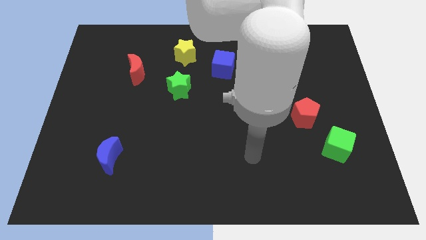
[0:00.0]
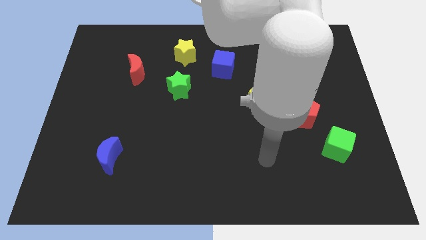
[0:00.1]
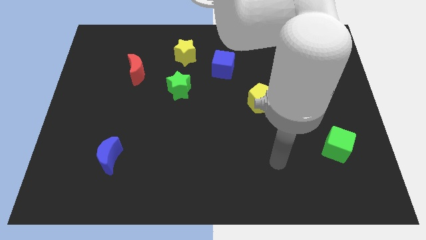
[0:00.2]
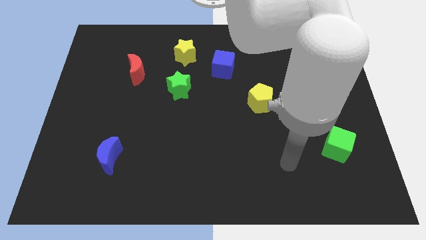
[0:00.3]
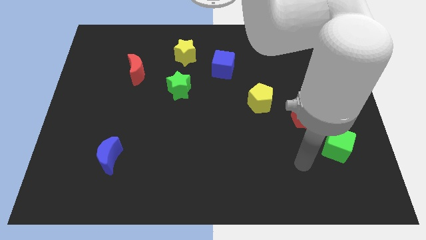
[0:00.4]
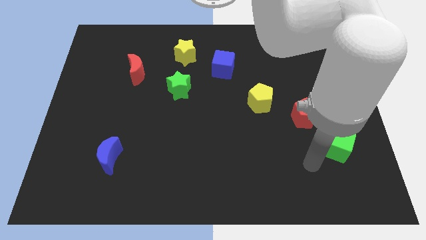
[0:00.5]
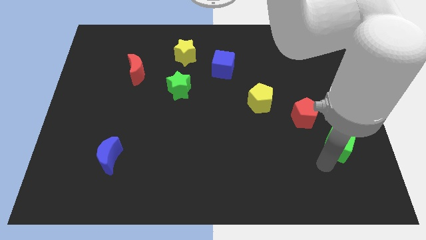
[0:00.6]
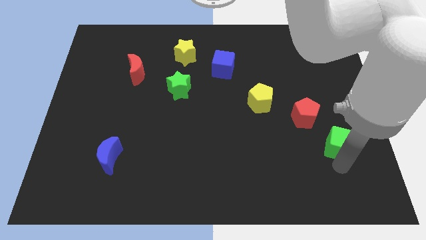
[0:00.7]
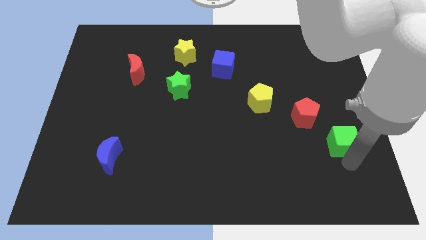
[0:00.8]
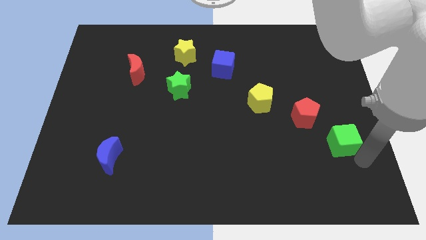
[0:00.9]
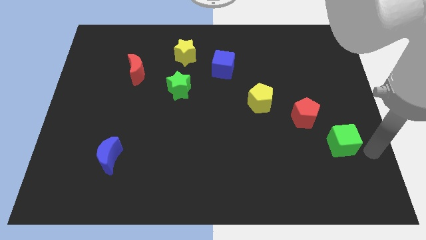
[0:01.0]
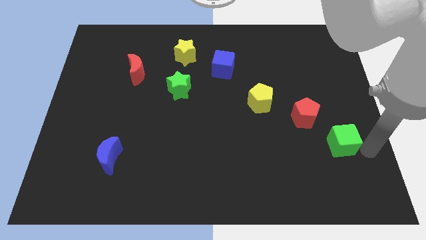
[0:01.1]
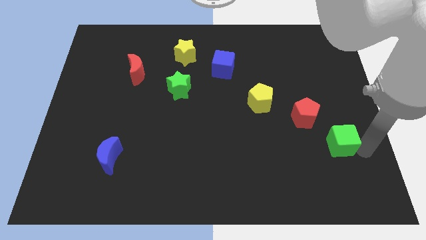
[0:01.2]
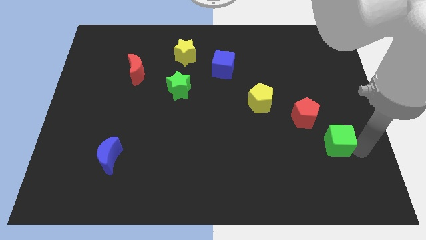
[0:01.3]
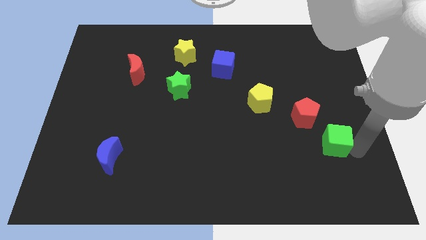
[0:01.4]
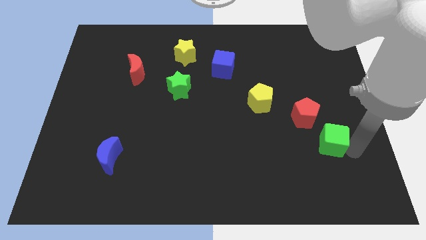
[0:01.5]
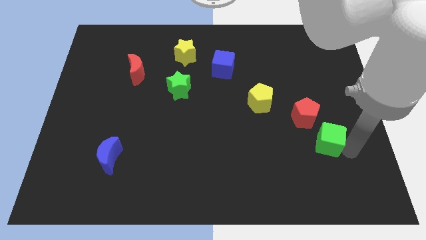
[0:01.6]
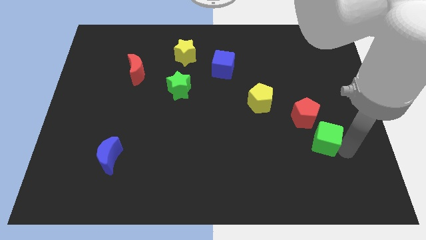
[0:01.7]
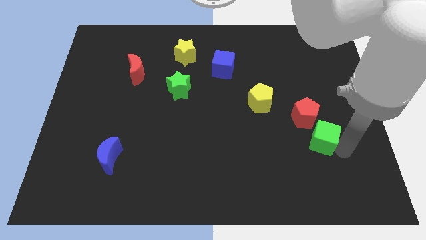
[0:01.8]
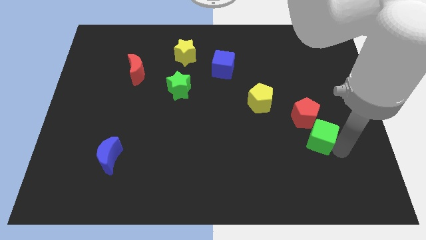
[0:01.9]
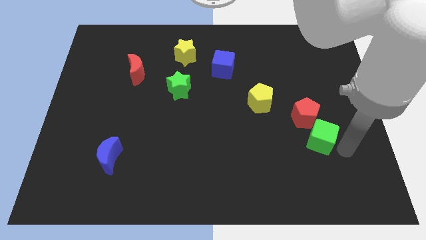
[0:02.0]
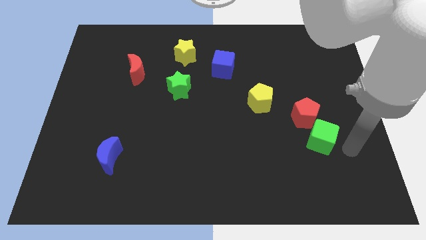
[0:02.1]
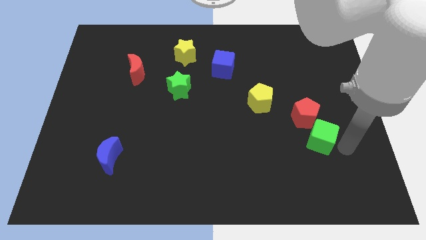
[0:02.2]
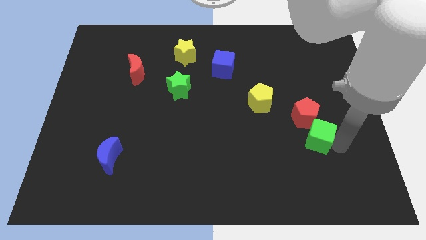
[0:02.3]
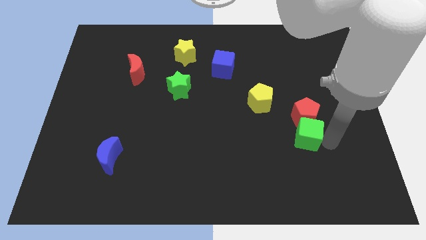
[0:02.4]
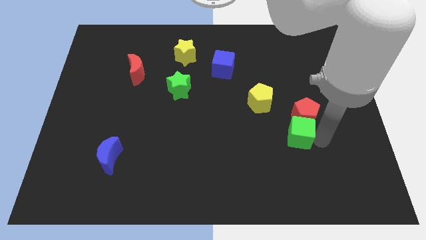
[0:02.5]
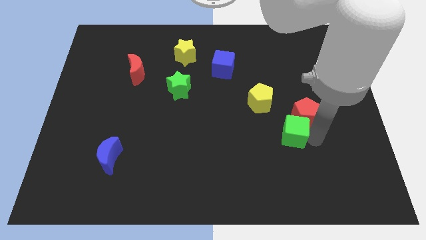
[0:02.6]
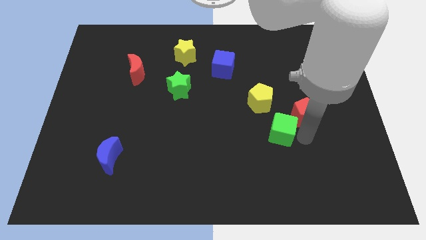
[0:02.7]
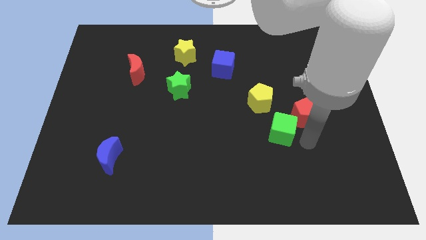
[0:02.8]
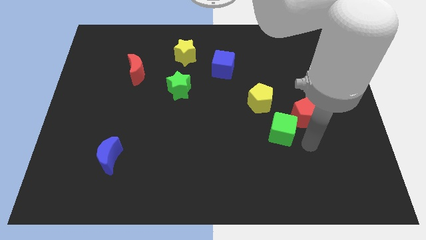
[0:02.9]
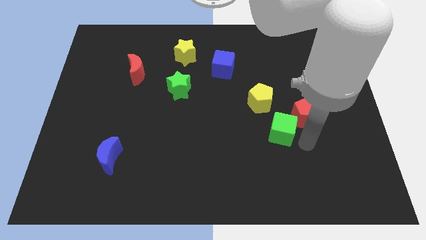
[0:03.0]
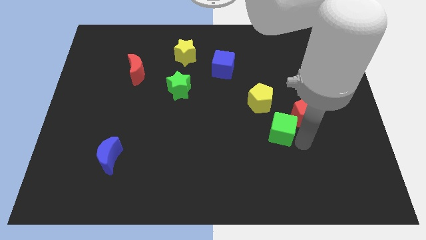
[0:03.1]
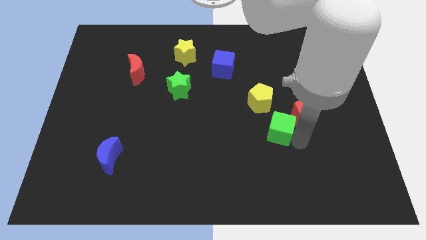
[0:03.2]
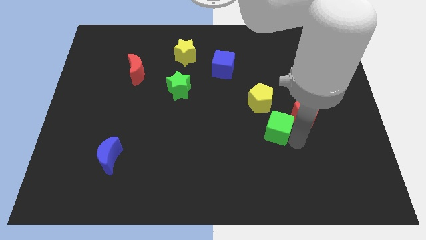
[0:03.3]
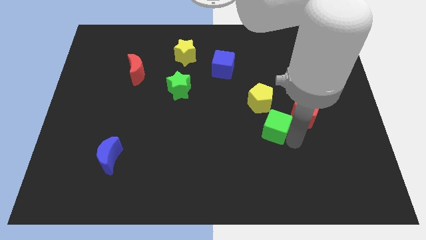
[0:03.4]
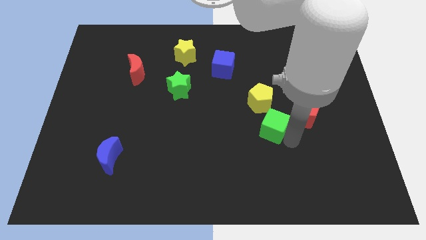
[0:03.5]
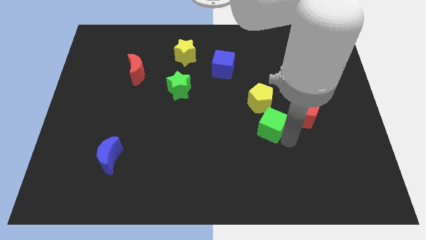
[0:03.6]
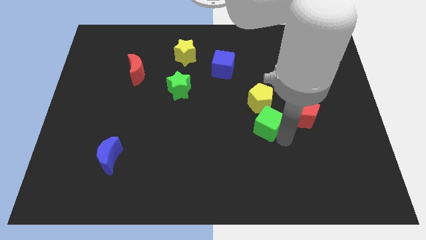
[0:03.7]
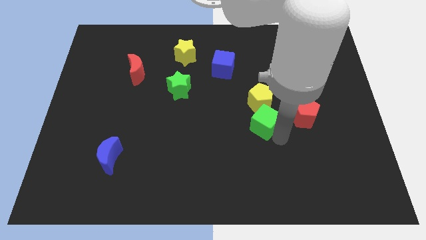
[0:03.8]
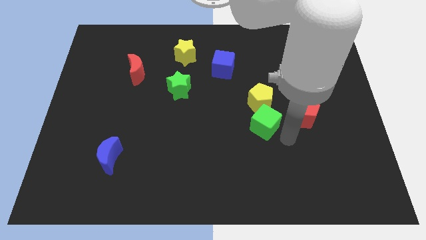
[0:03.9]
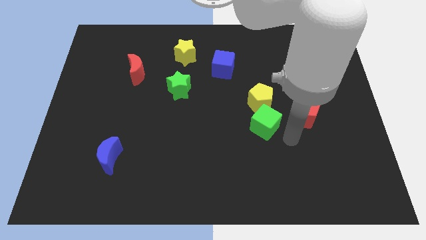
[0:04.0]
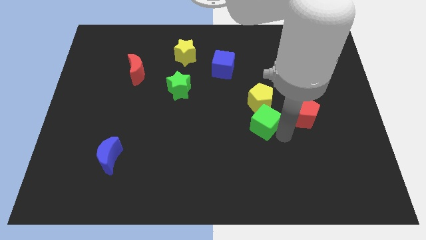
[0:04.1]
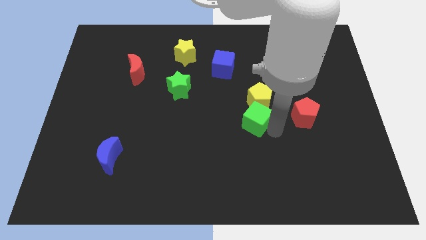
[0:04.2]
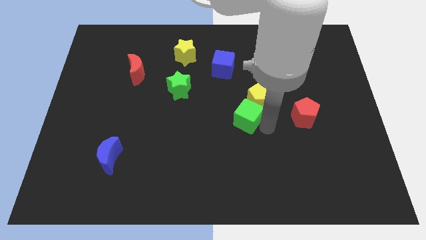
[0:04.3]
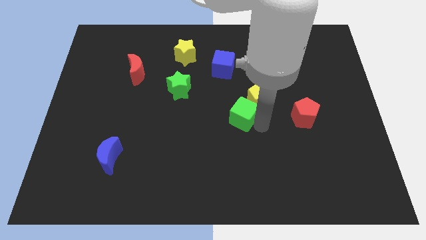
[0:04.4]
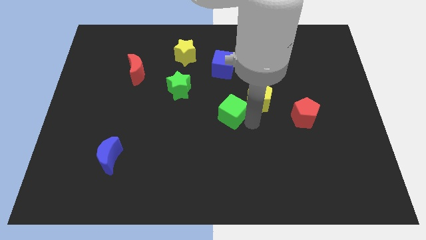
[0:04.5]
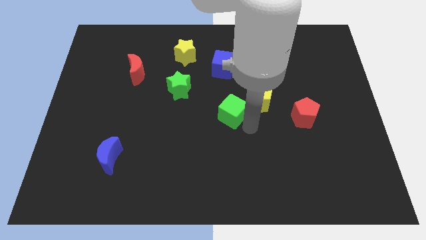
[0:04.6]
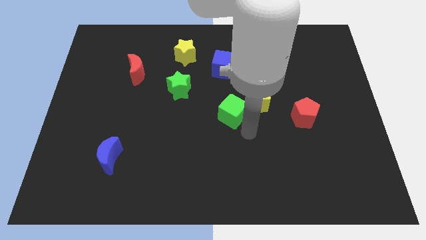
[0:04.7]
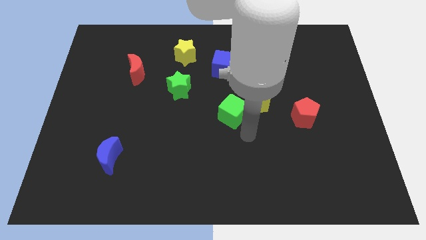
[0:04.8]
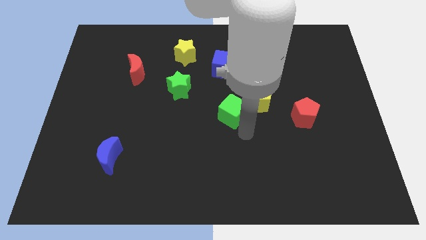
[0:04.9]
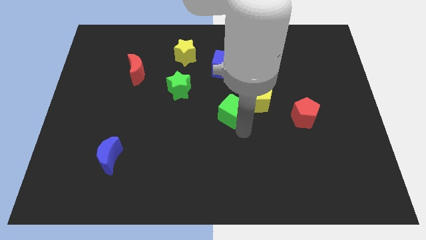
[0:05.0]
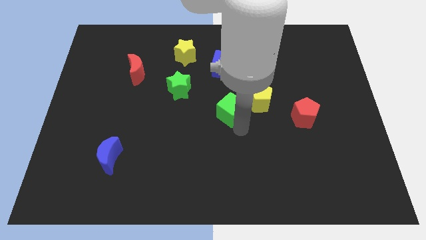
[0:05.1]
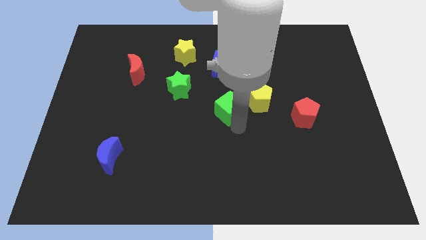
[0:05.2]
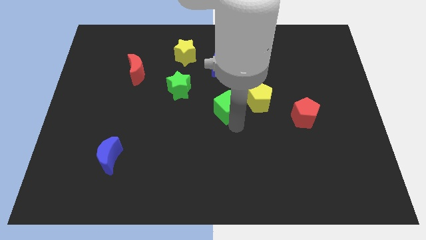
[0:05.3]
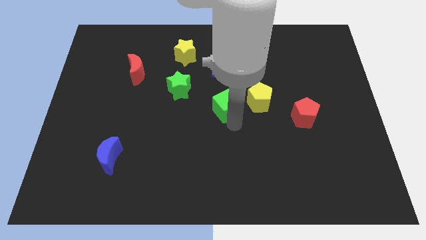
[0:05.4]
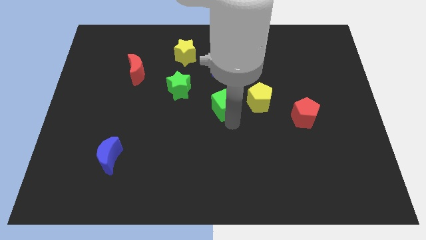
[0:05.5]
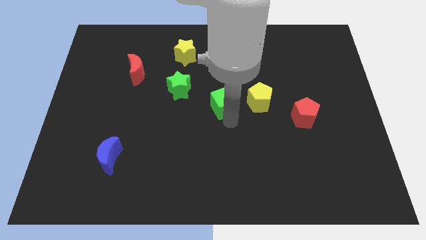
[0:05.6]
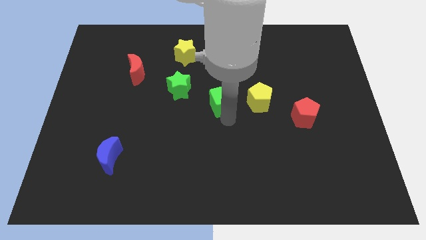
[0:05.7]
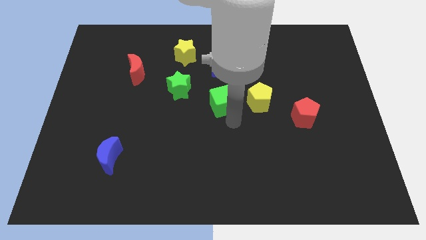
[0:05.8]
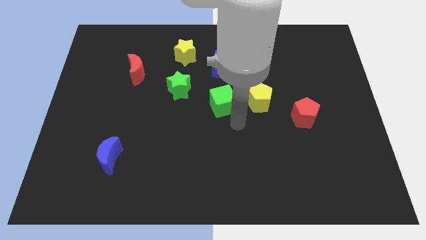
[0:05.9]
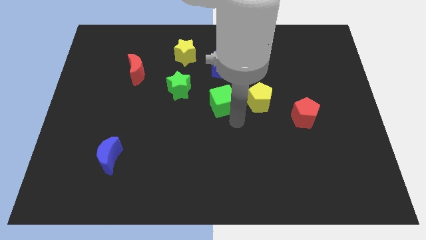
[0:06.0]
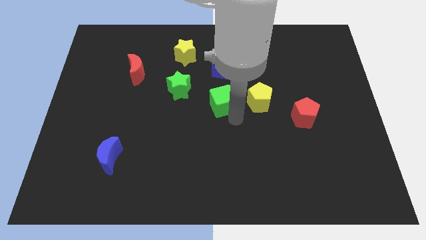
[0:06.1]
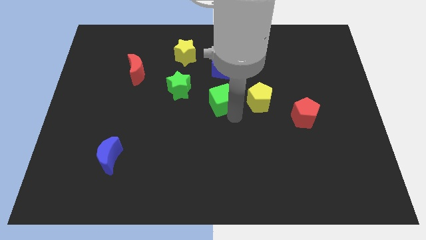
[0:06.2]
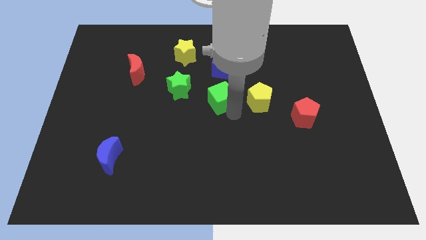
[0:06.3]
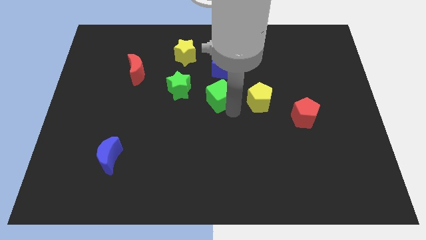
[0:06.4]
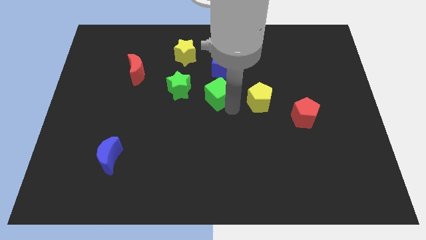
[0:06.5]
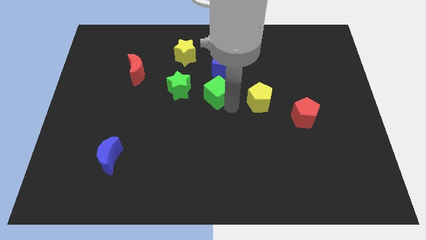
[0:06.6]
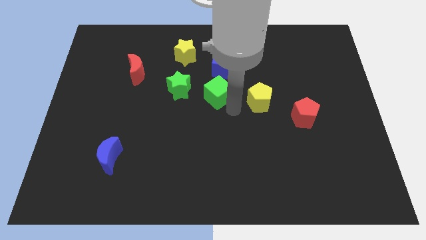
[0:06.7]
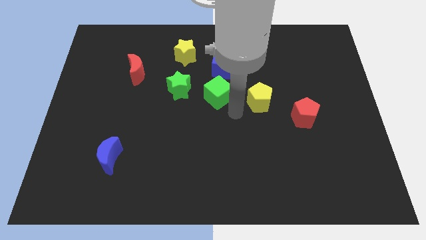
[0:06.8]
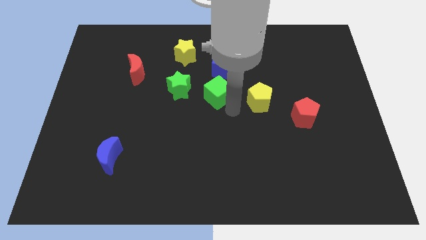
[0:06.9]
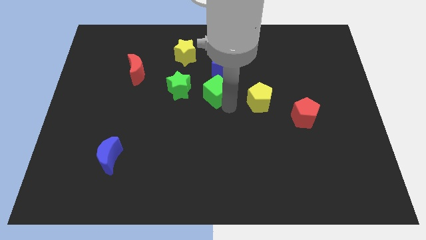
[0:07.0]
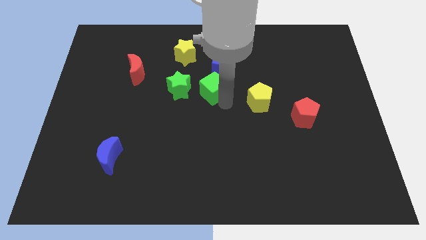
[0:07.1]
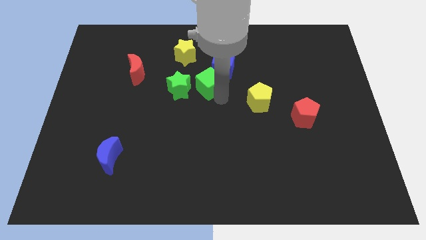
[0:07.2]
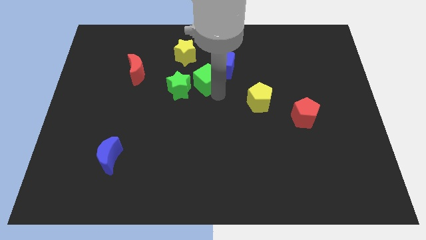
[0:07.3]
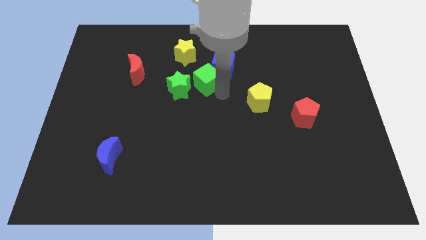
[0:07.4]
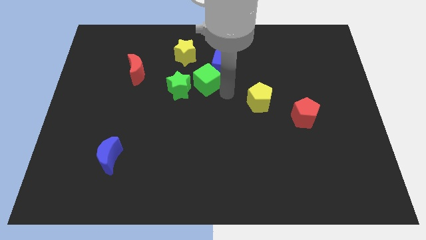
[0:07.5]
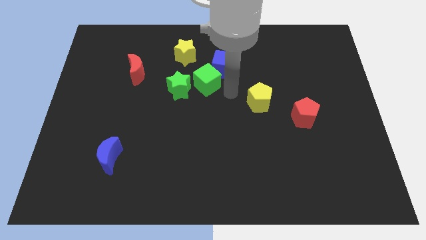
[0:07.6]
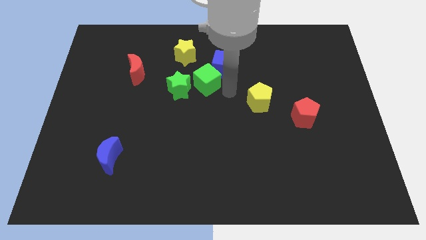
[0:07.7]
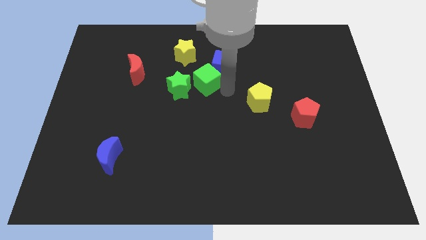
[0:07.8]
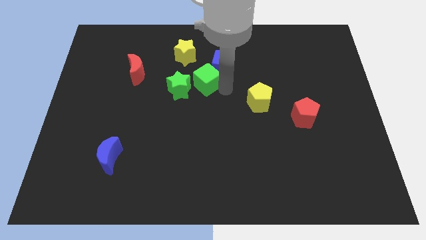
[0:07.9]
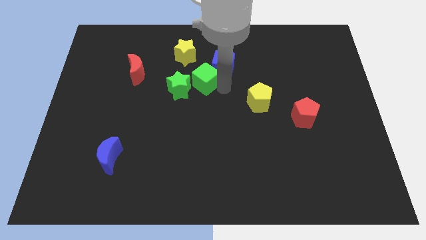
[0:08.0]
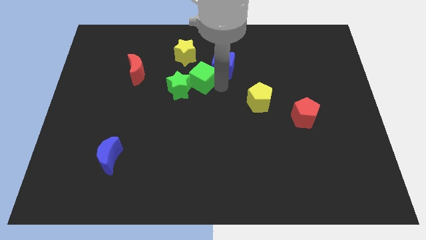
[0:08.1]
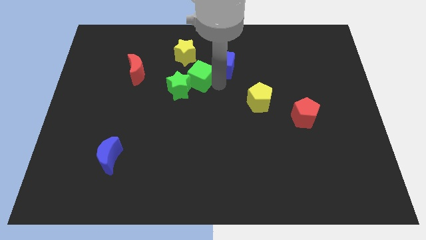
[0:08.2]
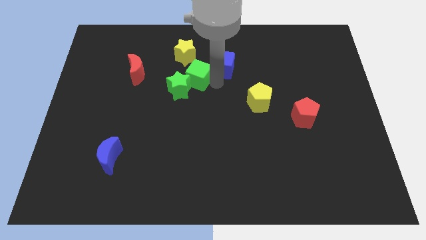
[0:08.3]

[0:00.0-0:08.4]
move the green cube right of the red moon
